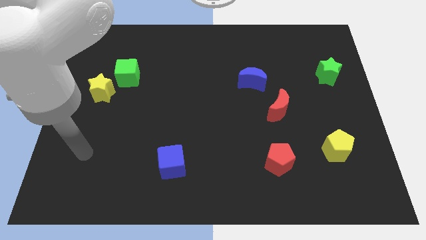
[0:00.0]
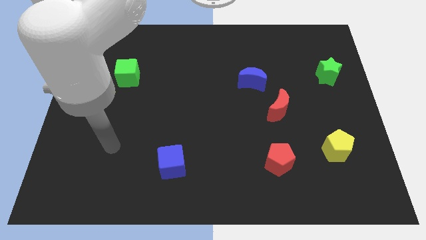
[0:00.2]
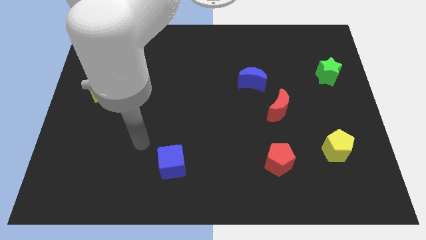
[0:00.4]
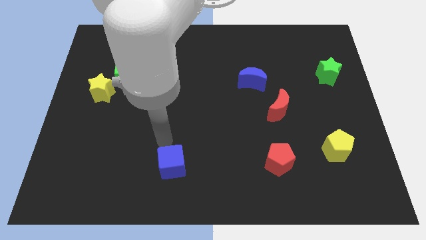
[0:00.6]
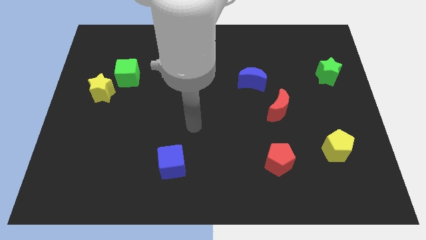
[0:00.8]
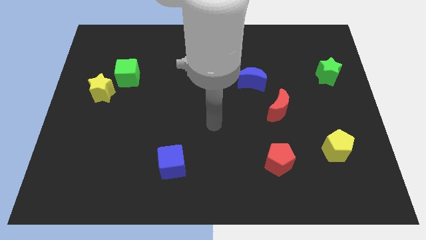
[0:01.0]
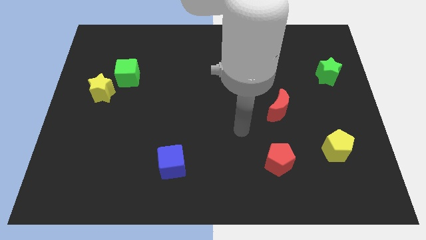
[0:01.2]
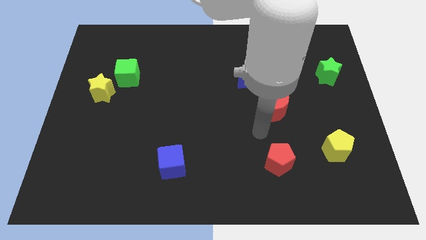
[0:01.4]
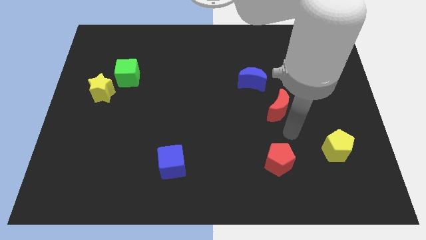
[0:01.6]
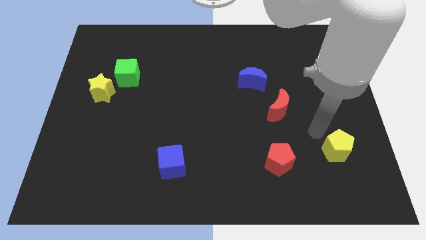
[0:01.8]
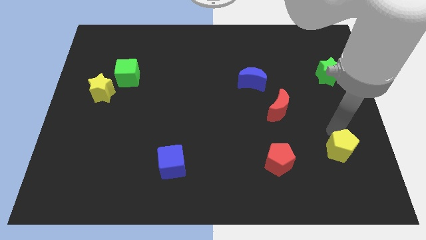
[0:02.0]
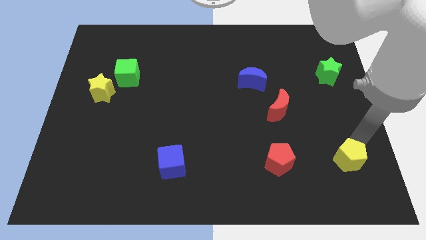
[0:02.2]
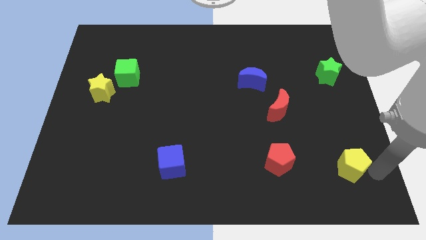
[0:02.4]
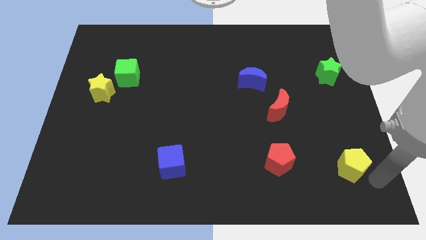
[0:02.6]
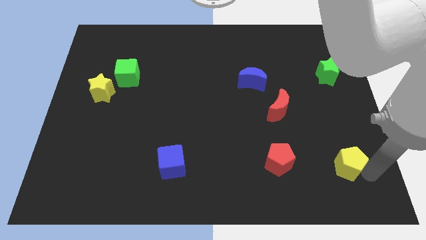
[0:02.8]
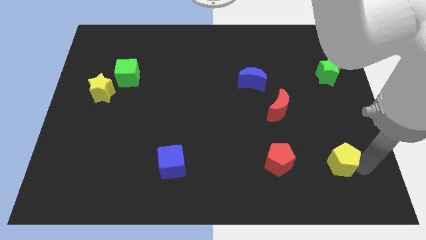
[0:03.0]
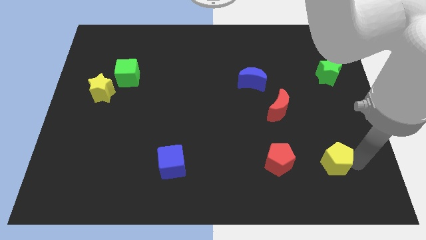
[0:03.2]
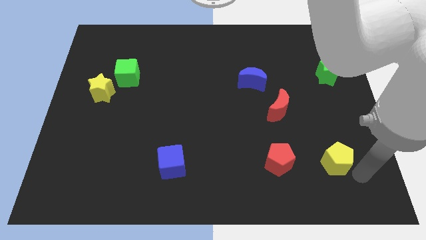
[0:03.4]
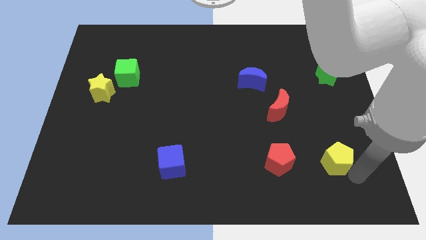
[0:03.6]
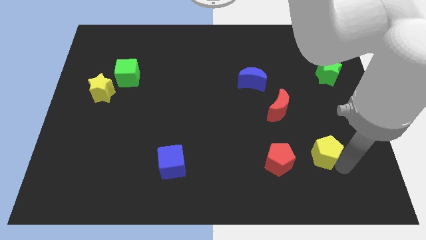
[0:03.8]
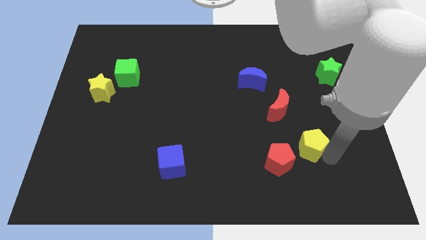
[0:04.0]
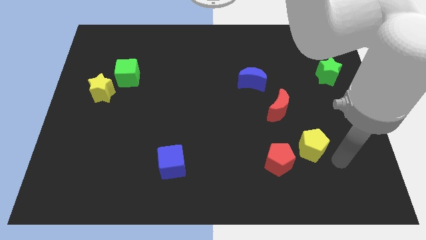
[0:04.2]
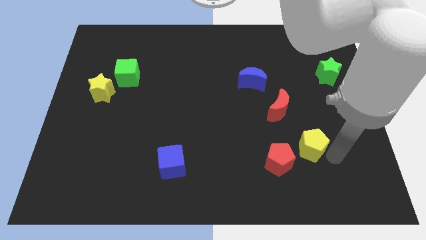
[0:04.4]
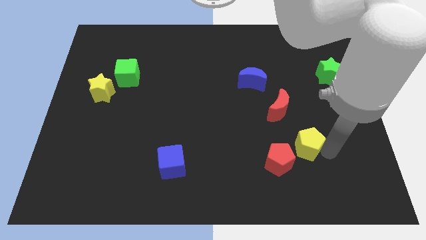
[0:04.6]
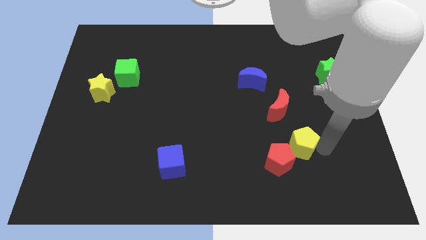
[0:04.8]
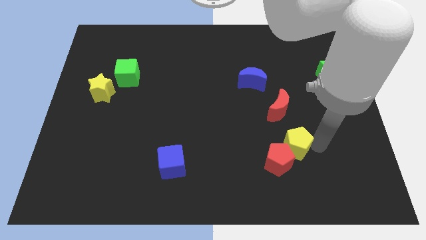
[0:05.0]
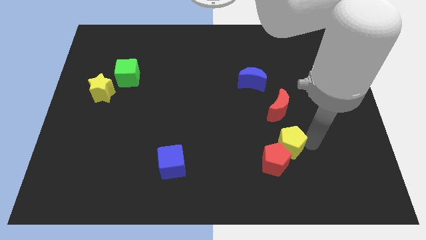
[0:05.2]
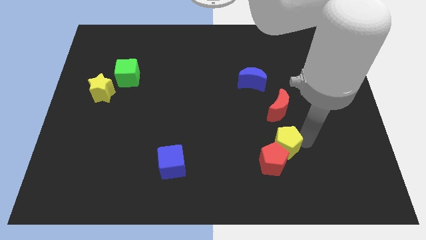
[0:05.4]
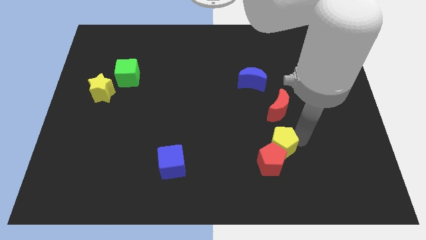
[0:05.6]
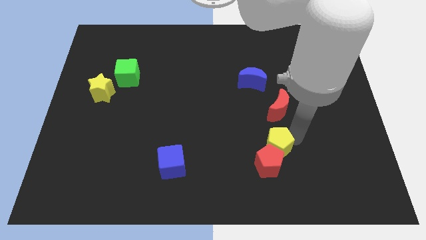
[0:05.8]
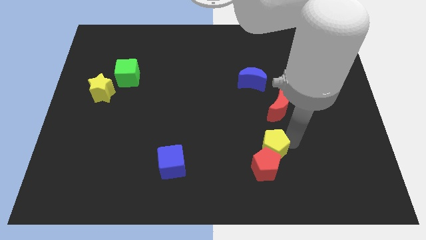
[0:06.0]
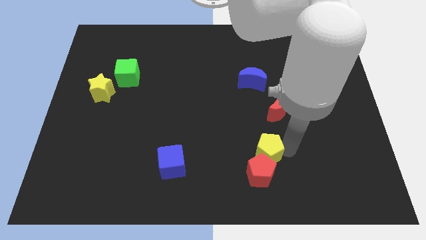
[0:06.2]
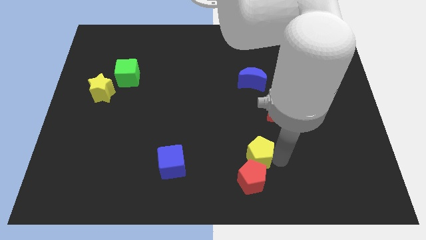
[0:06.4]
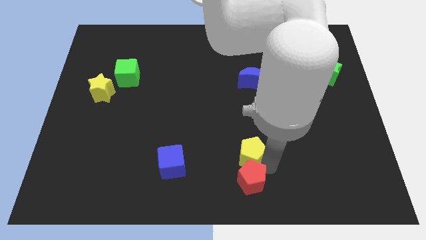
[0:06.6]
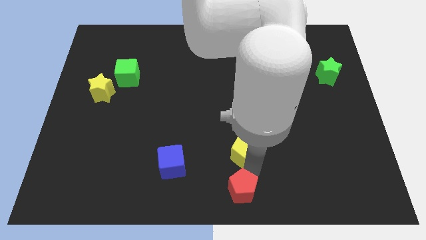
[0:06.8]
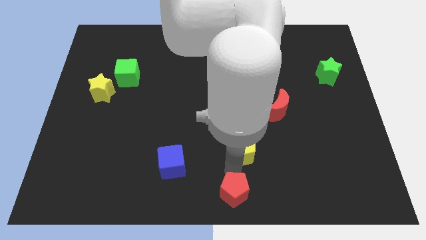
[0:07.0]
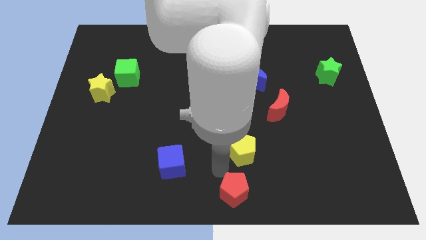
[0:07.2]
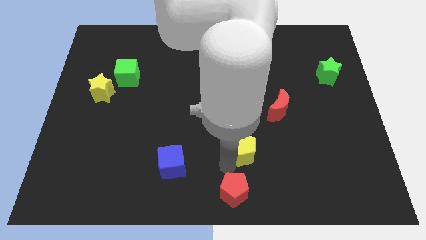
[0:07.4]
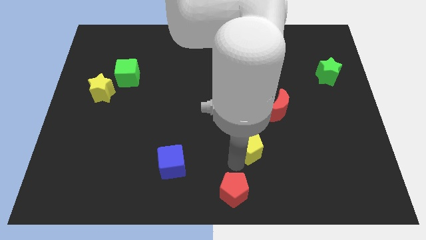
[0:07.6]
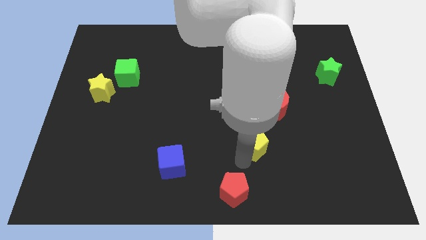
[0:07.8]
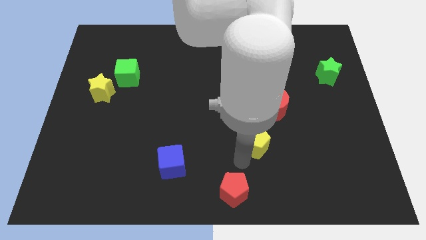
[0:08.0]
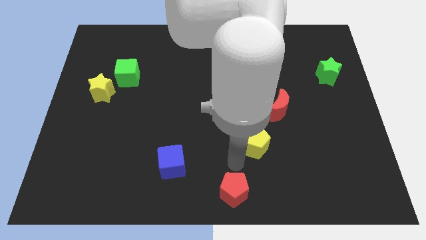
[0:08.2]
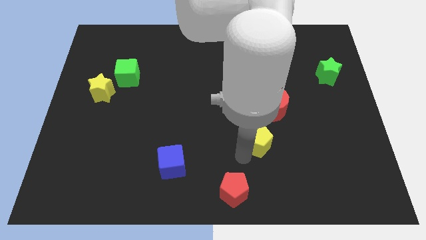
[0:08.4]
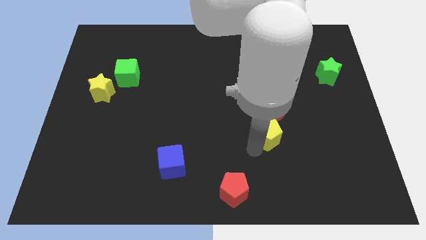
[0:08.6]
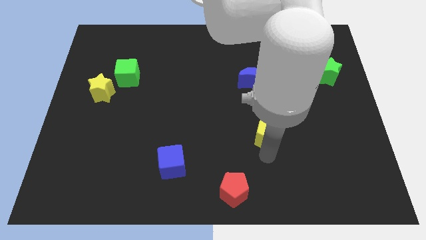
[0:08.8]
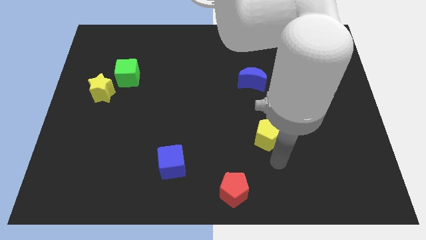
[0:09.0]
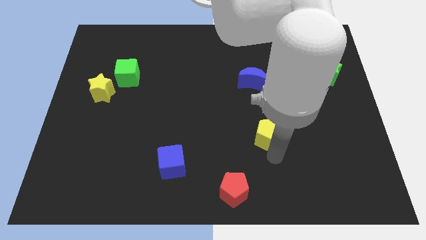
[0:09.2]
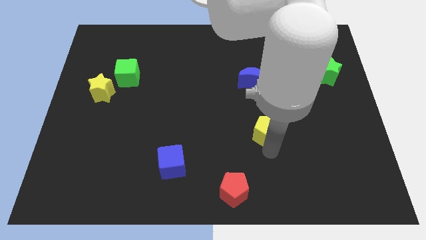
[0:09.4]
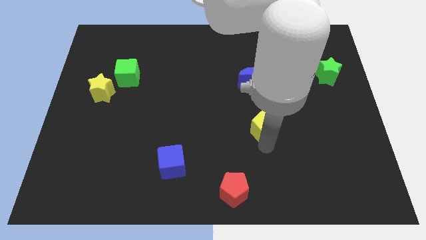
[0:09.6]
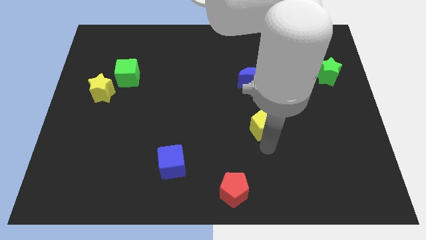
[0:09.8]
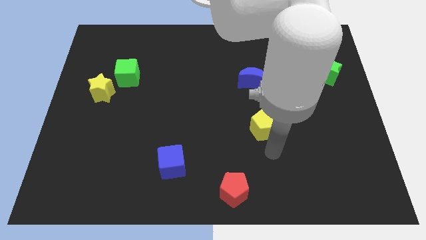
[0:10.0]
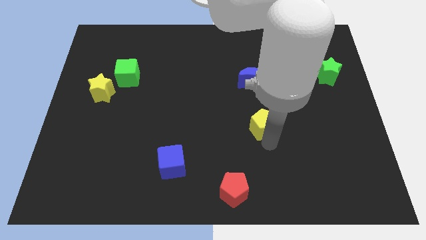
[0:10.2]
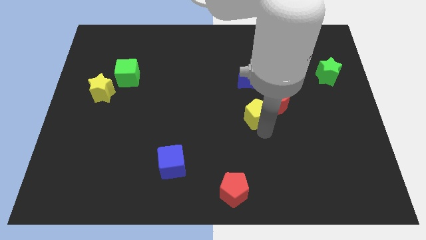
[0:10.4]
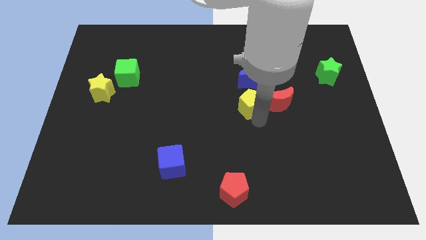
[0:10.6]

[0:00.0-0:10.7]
push the yellow pentagon diagonally up and to the left

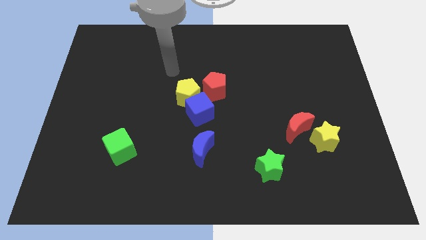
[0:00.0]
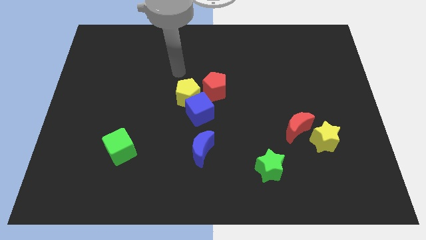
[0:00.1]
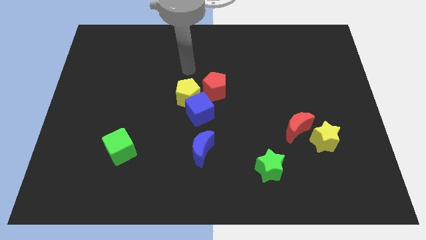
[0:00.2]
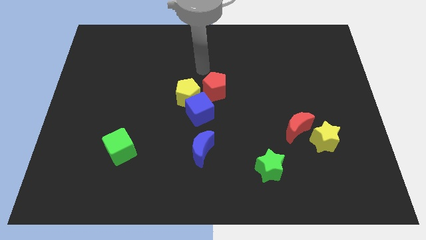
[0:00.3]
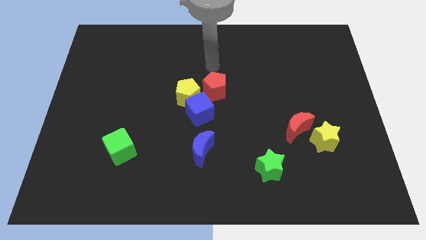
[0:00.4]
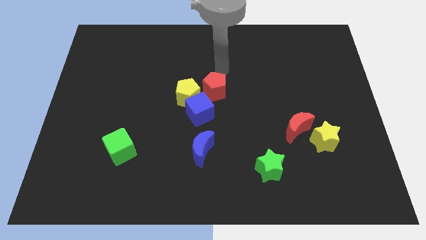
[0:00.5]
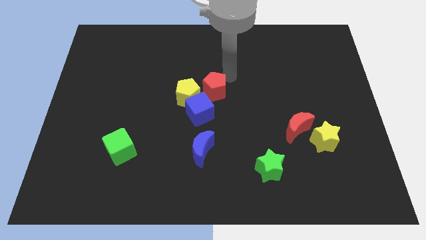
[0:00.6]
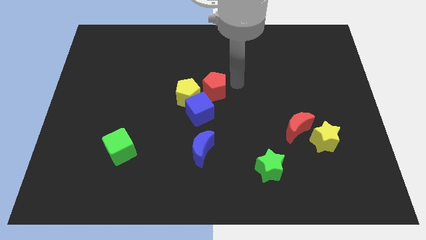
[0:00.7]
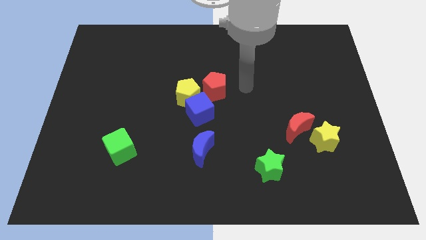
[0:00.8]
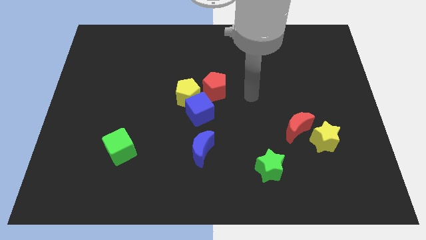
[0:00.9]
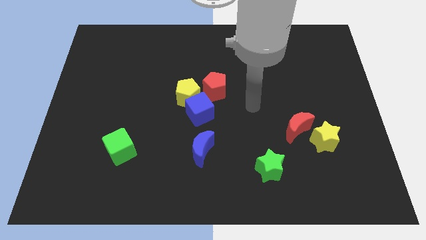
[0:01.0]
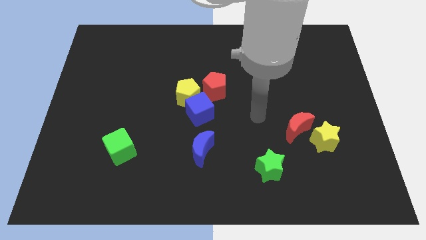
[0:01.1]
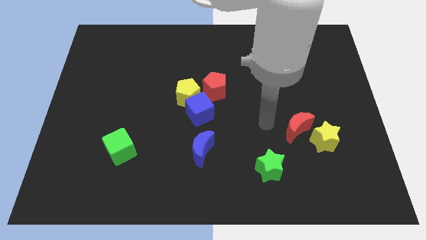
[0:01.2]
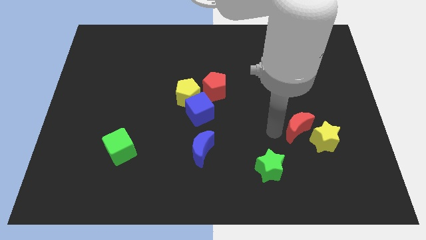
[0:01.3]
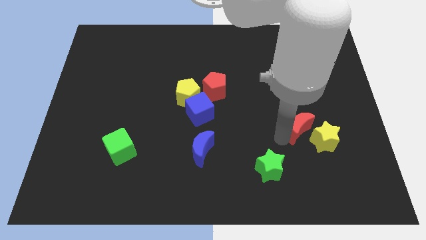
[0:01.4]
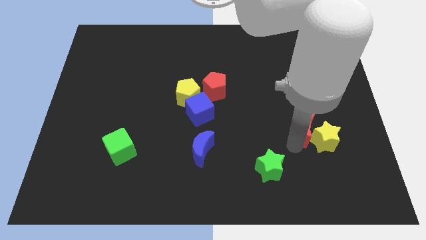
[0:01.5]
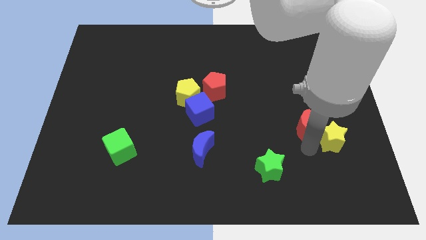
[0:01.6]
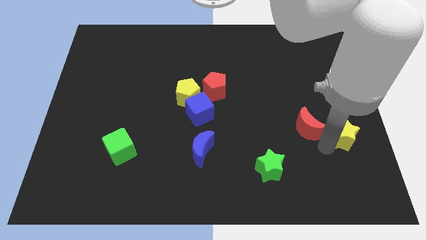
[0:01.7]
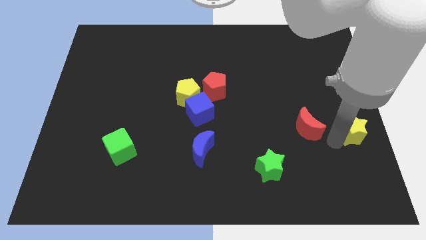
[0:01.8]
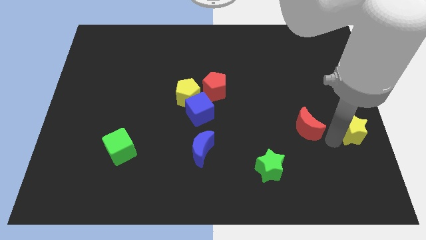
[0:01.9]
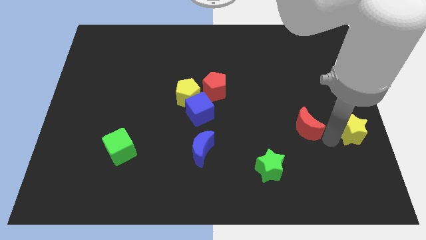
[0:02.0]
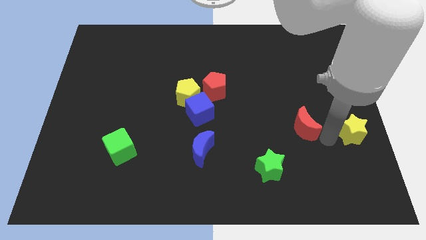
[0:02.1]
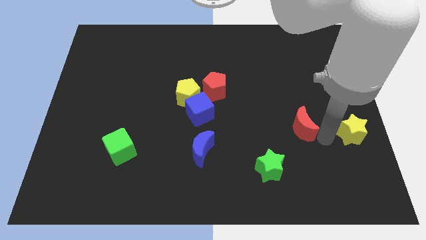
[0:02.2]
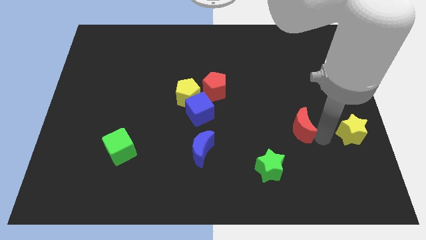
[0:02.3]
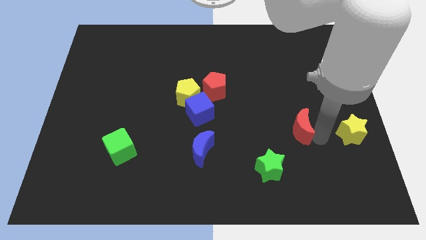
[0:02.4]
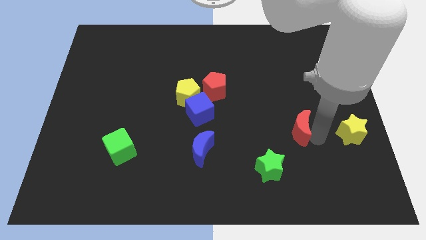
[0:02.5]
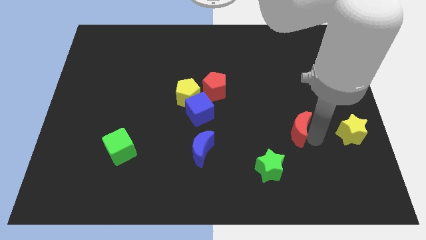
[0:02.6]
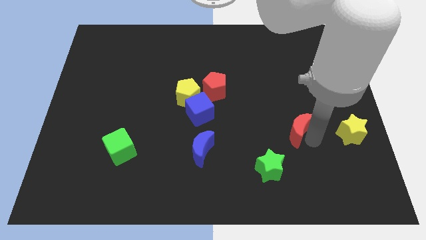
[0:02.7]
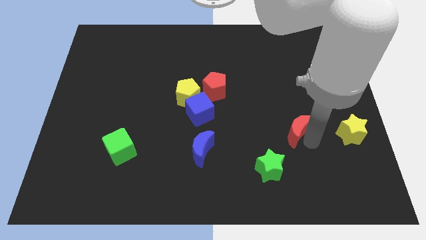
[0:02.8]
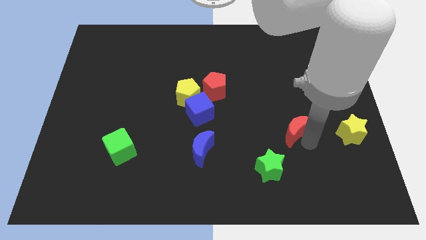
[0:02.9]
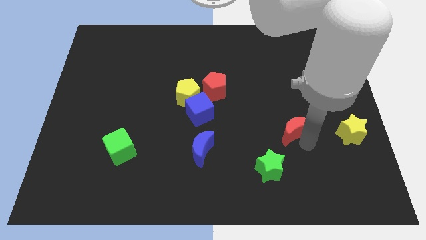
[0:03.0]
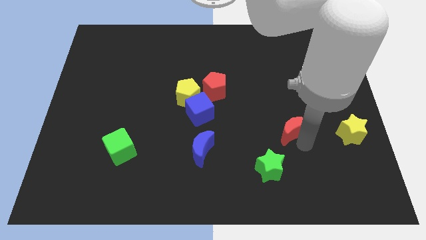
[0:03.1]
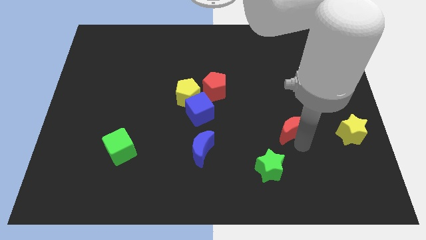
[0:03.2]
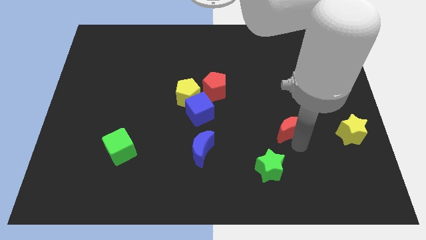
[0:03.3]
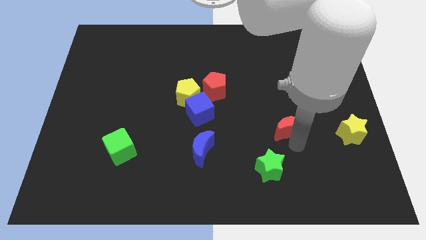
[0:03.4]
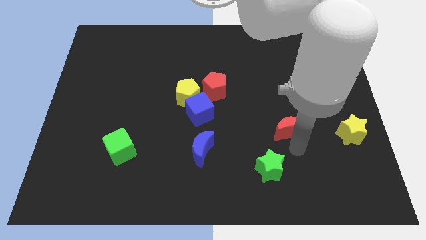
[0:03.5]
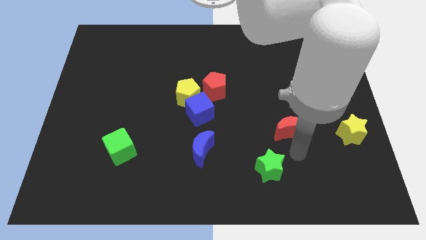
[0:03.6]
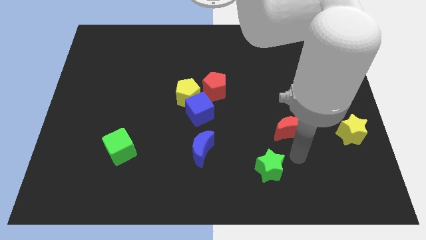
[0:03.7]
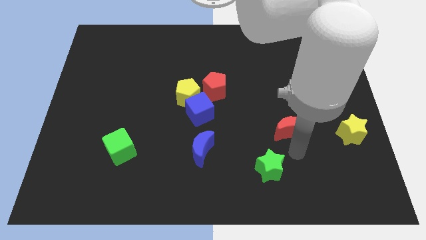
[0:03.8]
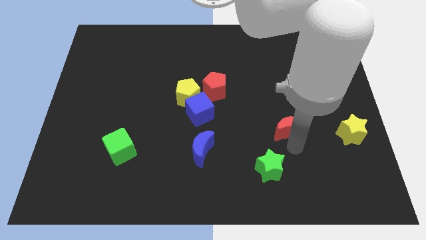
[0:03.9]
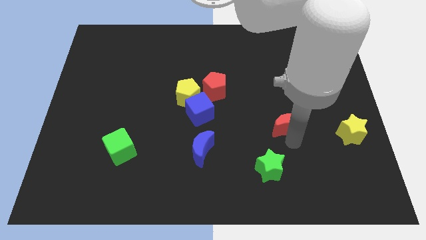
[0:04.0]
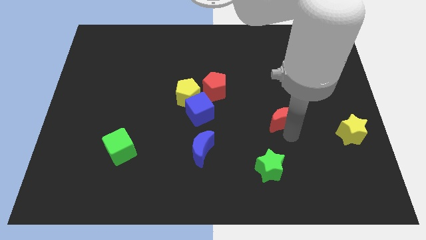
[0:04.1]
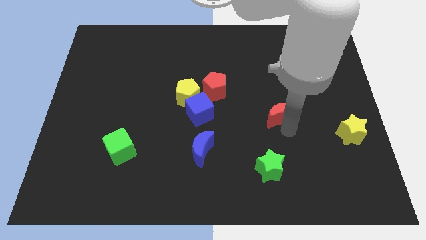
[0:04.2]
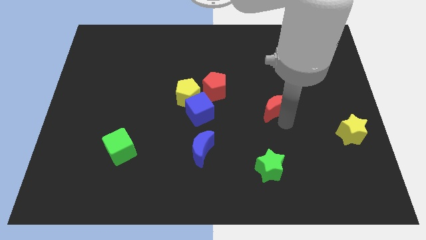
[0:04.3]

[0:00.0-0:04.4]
slightly move the red moon up and left diagonally
